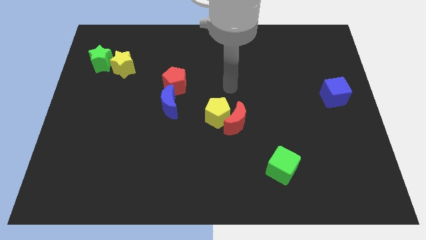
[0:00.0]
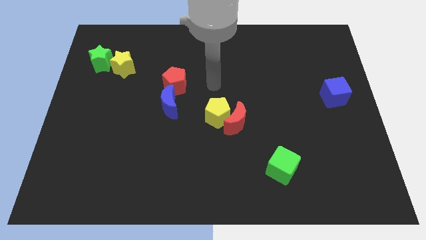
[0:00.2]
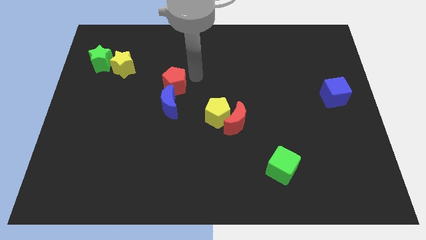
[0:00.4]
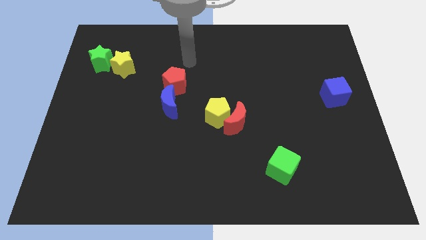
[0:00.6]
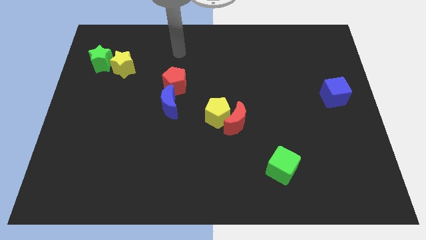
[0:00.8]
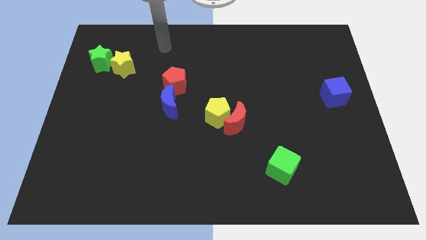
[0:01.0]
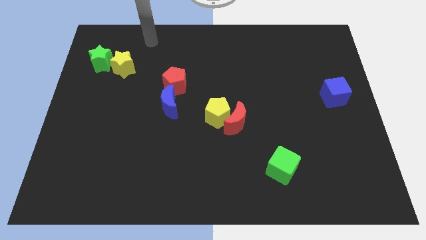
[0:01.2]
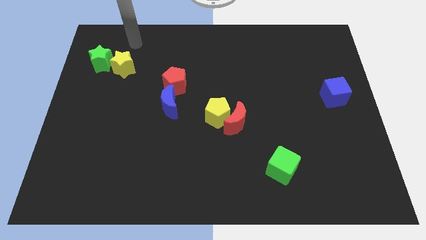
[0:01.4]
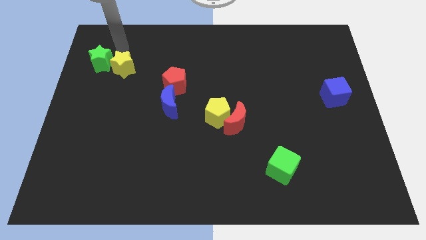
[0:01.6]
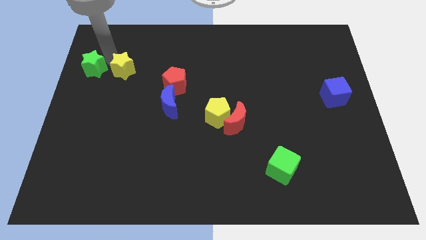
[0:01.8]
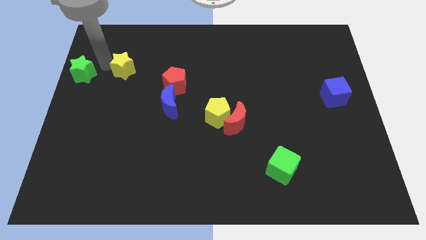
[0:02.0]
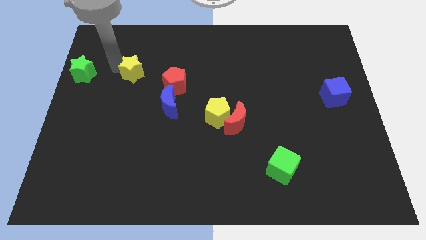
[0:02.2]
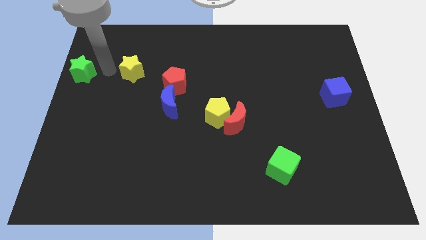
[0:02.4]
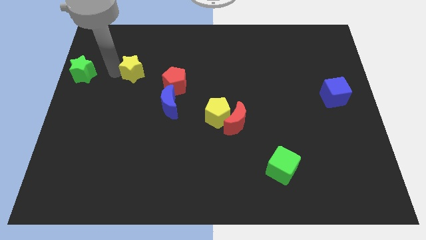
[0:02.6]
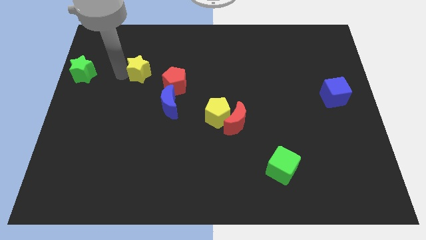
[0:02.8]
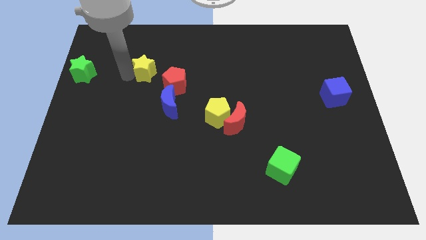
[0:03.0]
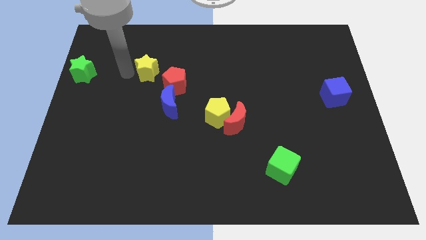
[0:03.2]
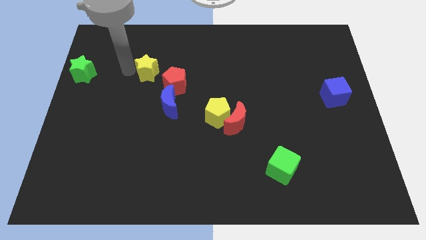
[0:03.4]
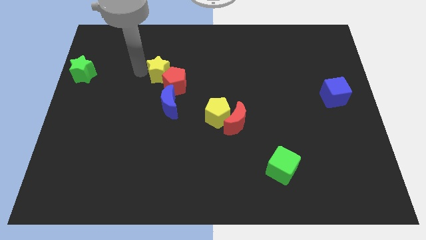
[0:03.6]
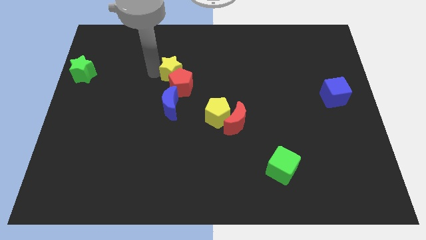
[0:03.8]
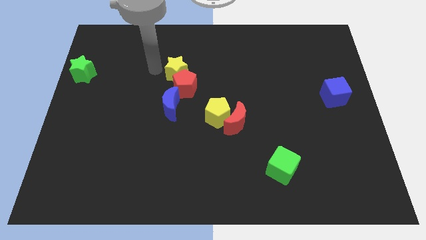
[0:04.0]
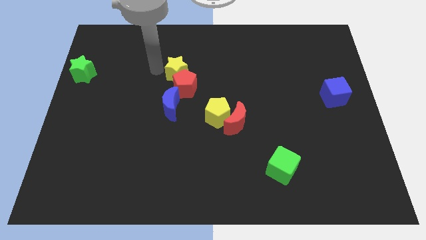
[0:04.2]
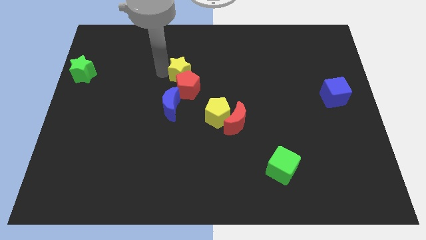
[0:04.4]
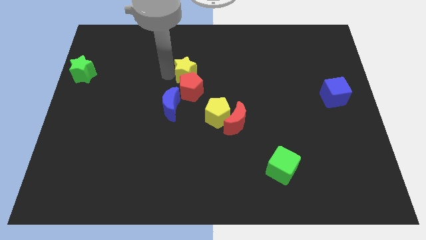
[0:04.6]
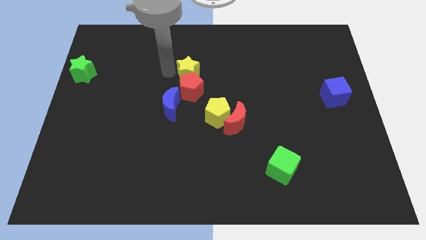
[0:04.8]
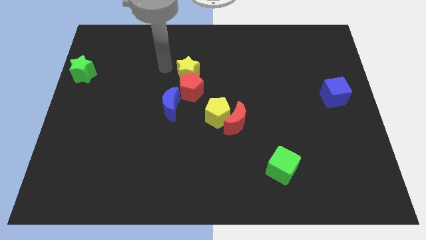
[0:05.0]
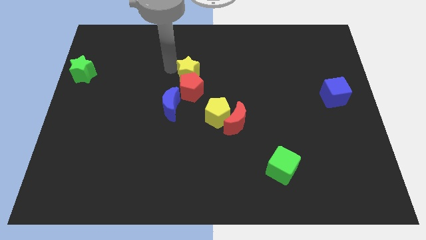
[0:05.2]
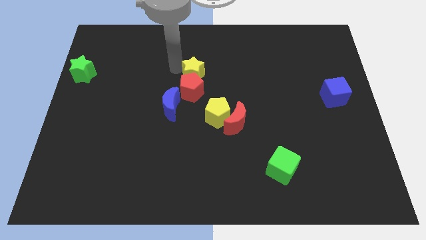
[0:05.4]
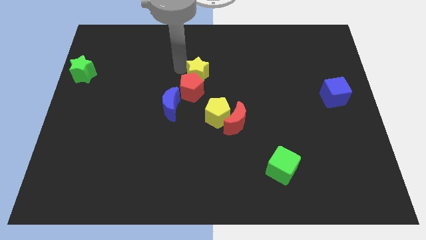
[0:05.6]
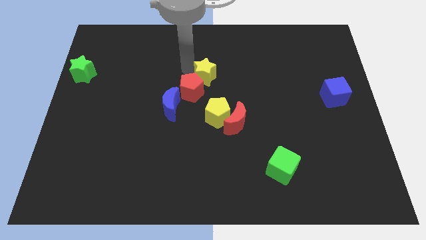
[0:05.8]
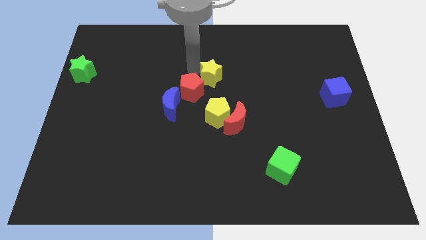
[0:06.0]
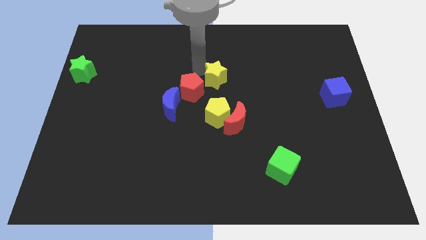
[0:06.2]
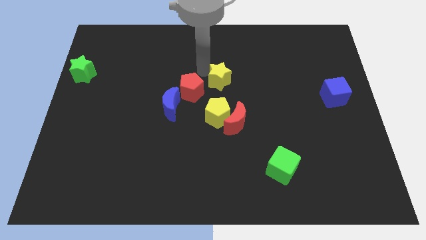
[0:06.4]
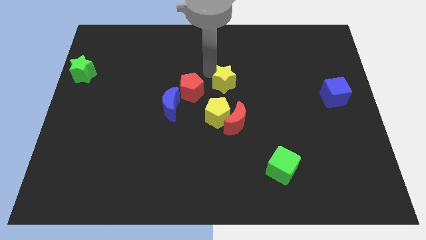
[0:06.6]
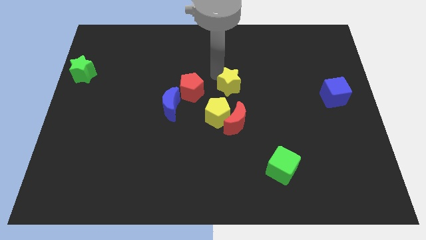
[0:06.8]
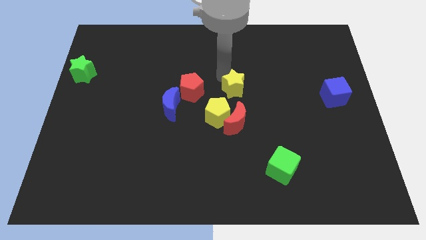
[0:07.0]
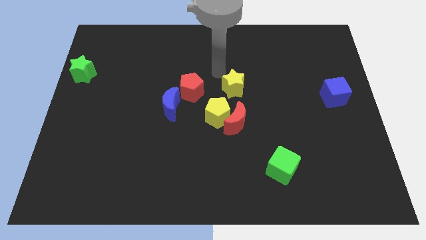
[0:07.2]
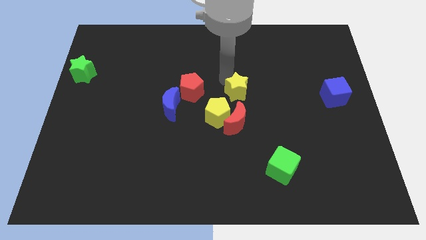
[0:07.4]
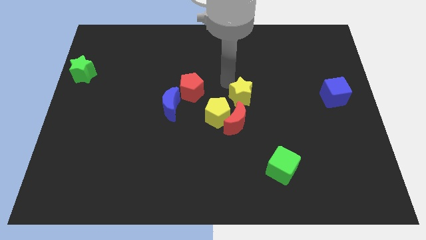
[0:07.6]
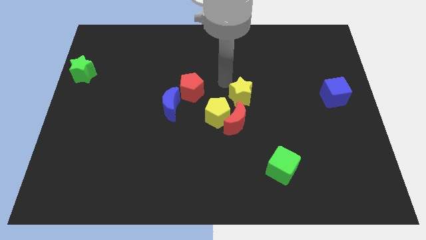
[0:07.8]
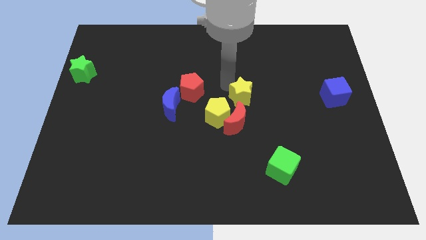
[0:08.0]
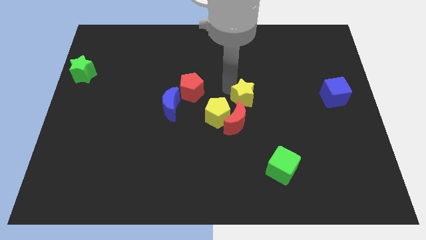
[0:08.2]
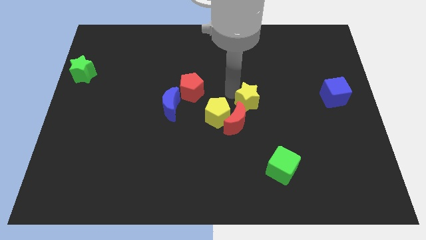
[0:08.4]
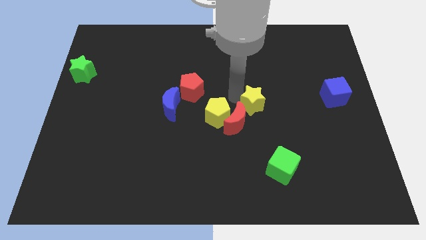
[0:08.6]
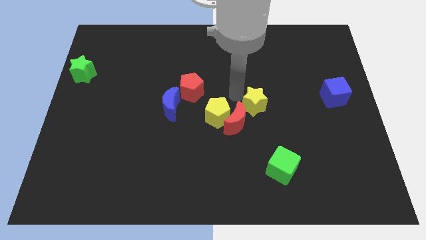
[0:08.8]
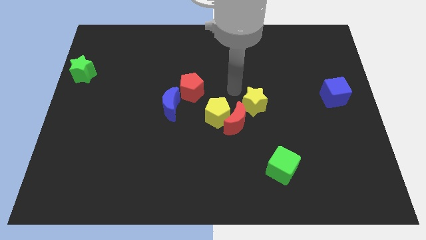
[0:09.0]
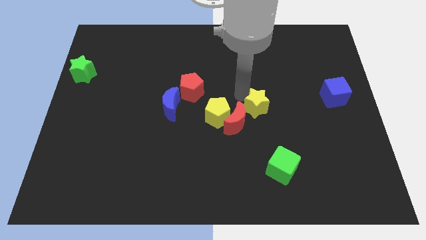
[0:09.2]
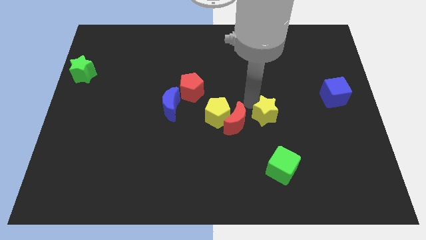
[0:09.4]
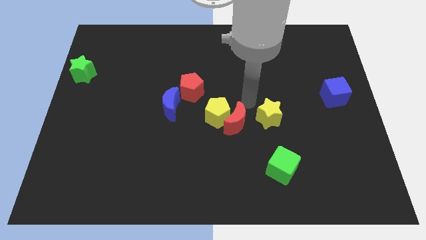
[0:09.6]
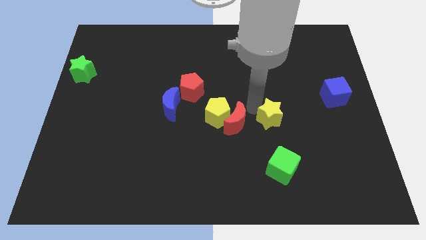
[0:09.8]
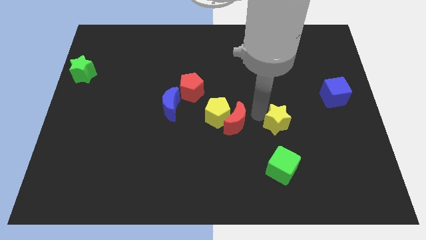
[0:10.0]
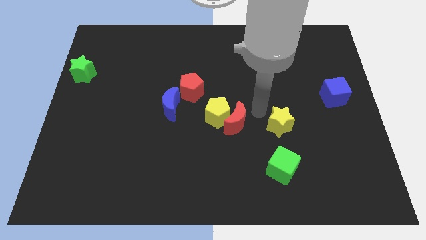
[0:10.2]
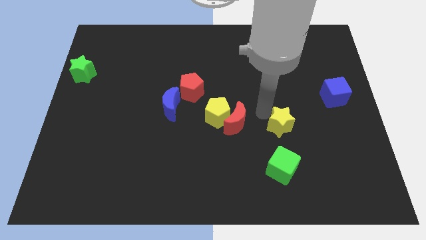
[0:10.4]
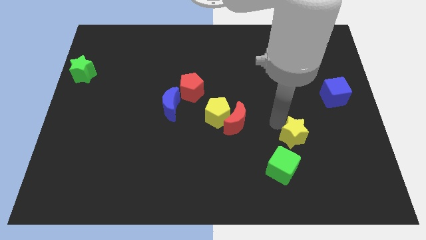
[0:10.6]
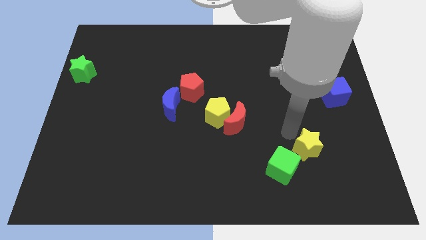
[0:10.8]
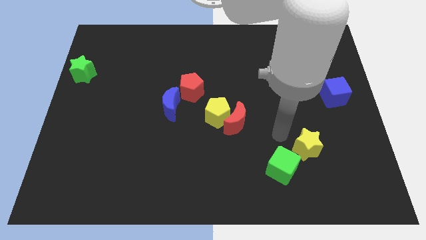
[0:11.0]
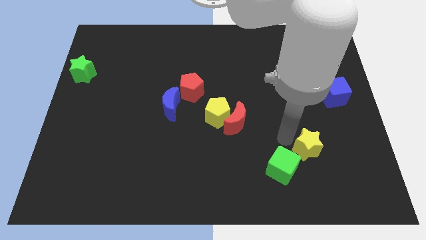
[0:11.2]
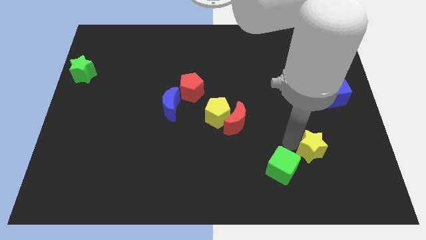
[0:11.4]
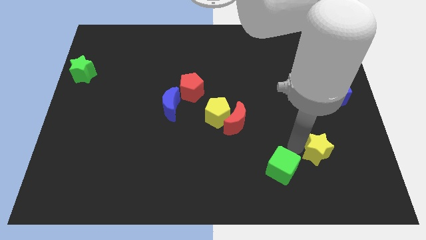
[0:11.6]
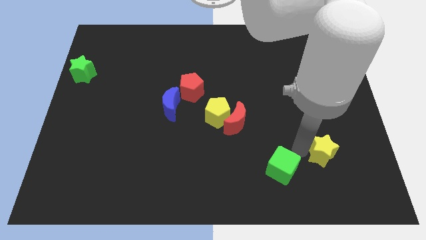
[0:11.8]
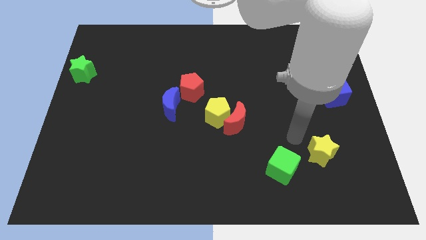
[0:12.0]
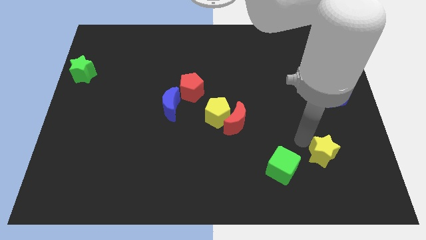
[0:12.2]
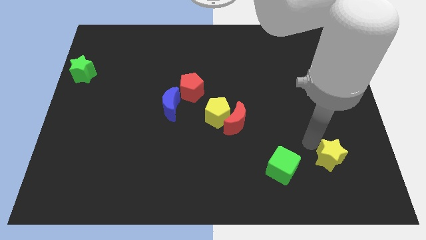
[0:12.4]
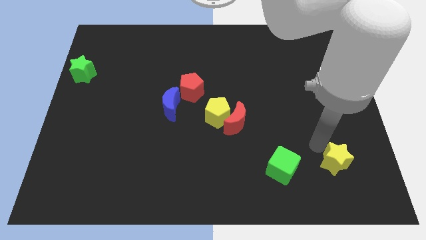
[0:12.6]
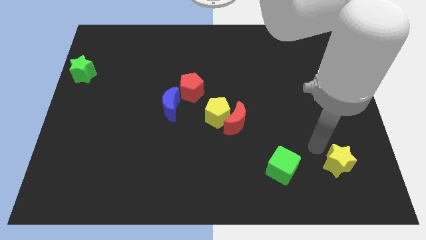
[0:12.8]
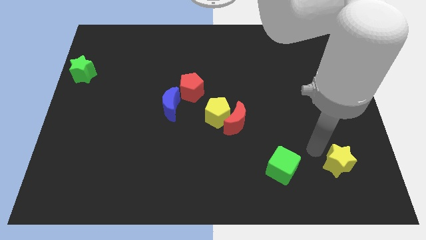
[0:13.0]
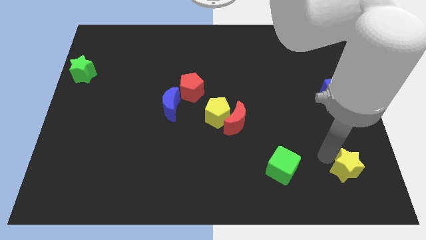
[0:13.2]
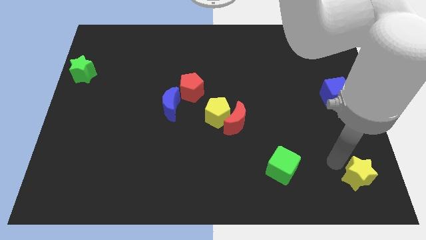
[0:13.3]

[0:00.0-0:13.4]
push the yellow star to the lower right corner
